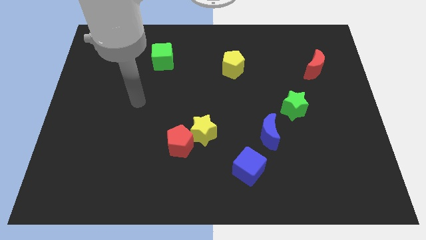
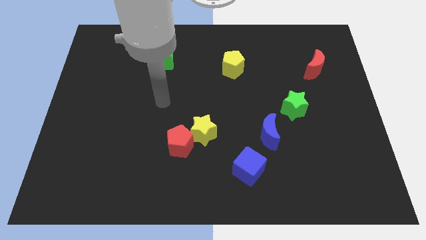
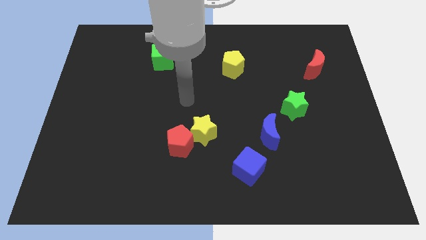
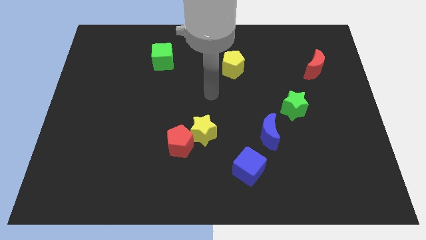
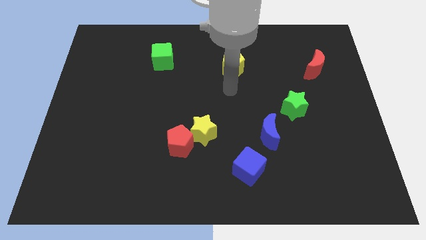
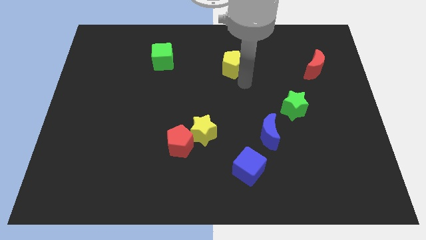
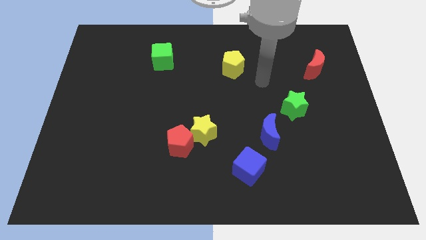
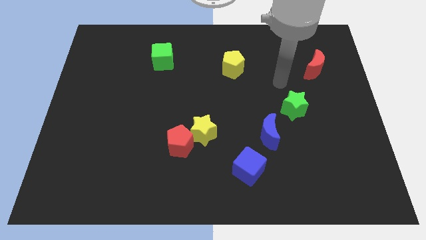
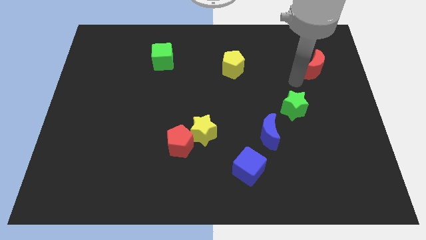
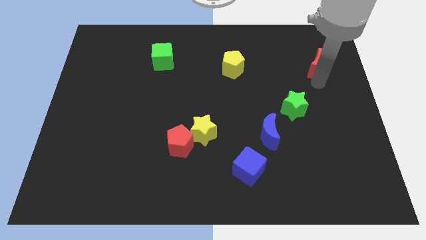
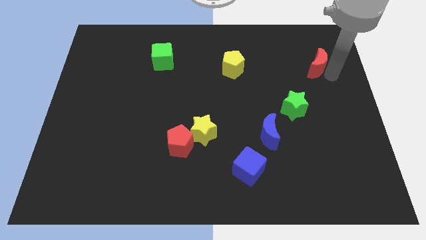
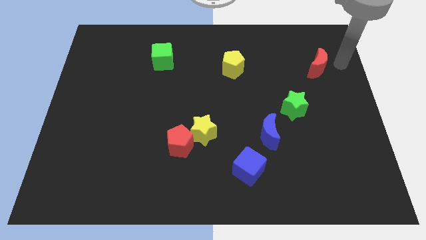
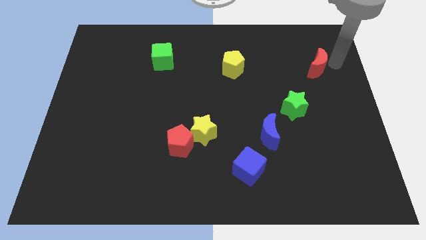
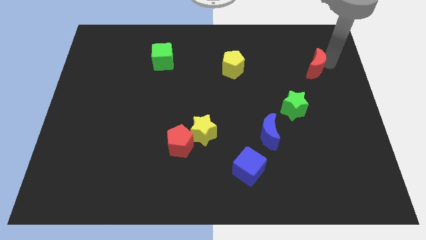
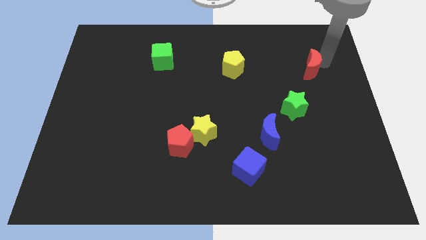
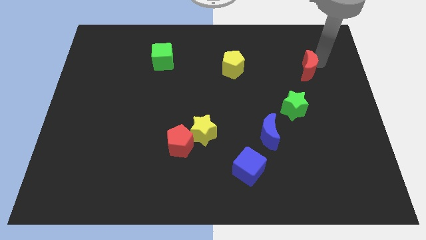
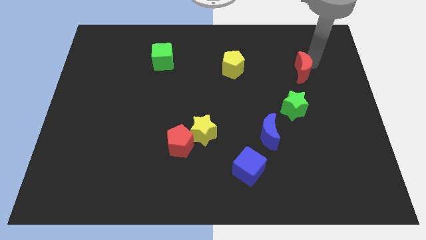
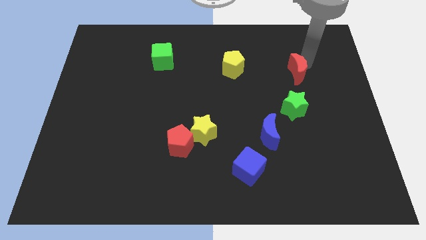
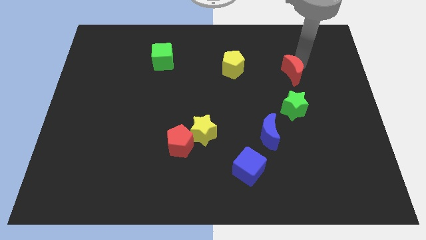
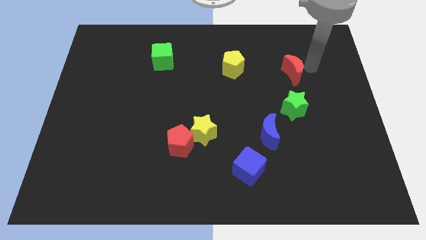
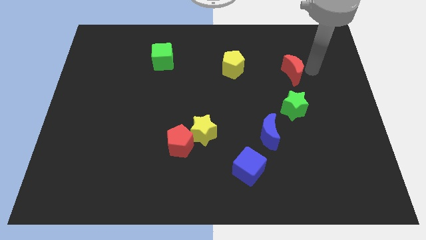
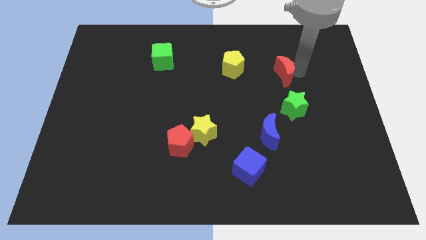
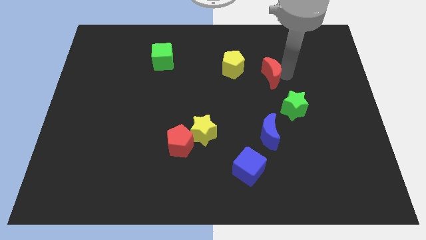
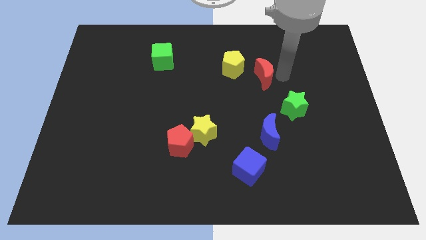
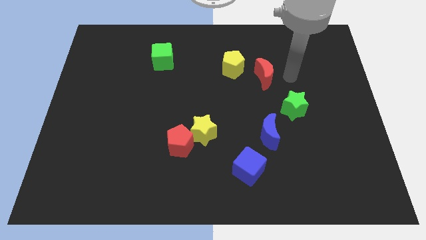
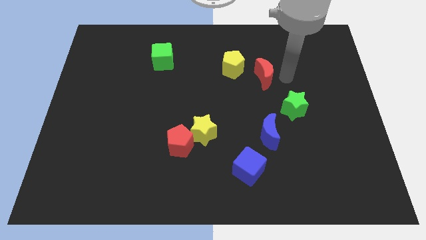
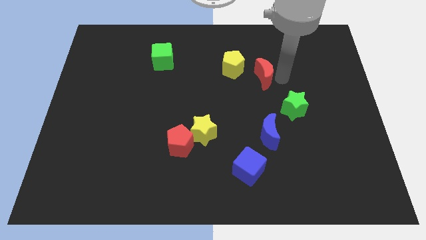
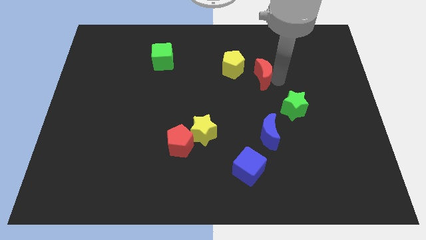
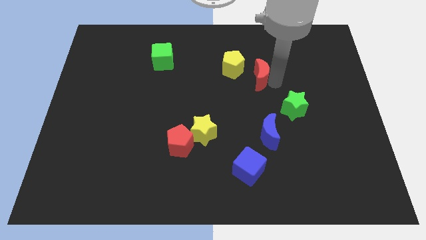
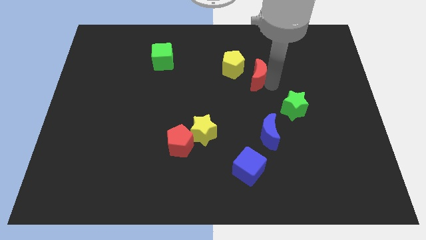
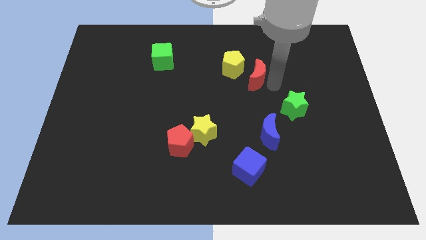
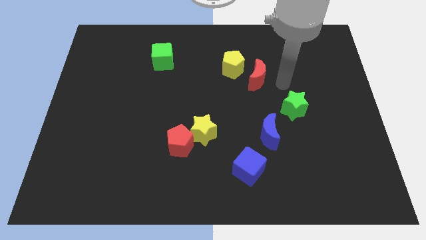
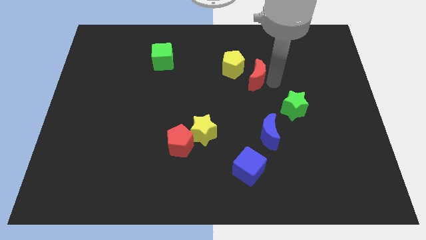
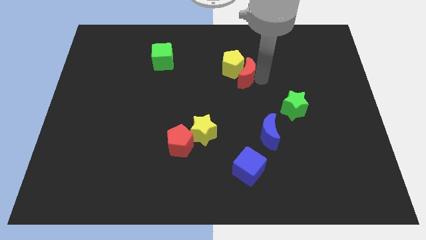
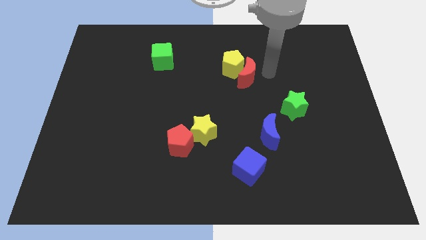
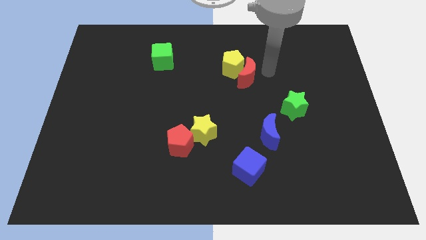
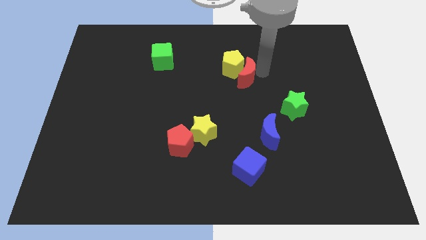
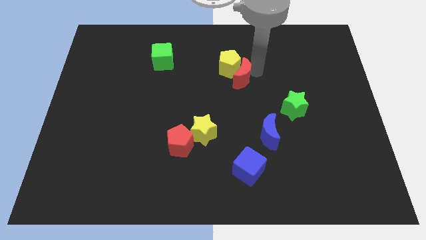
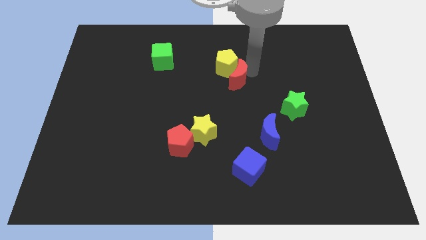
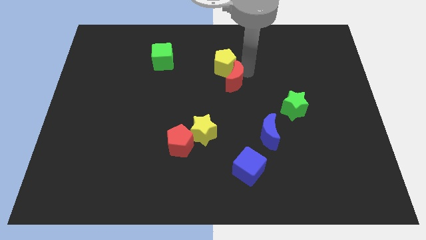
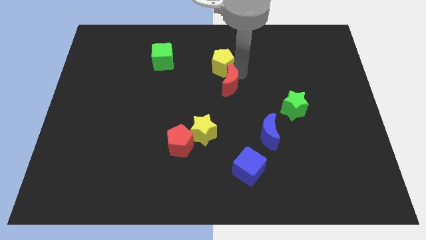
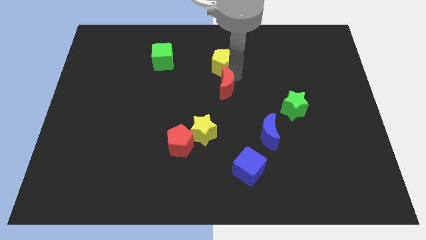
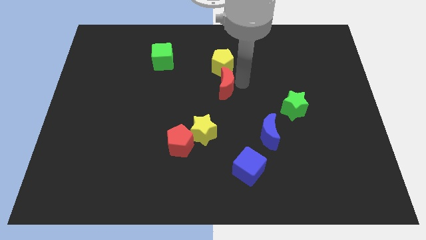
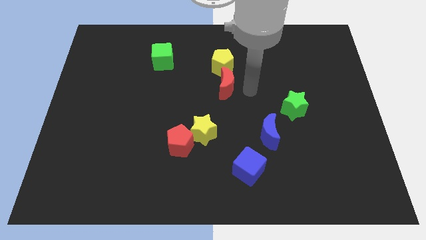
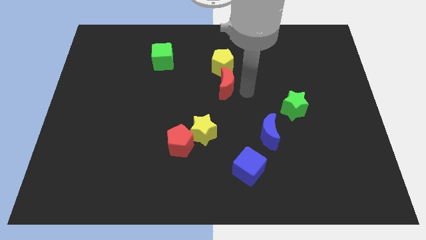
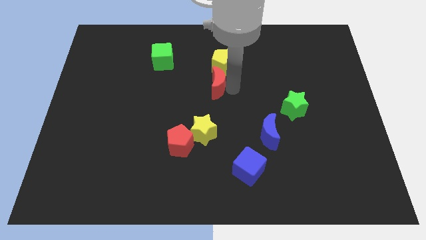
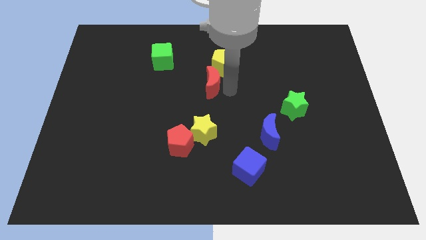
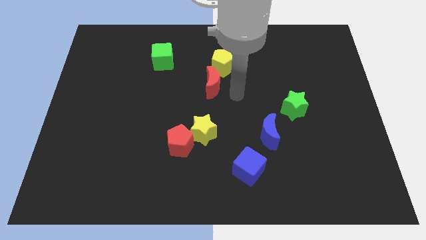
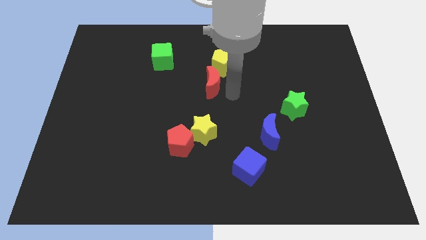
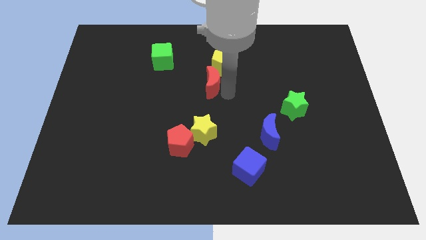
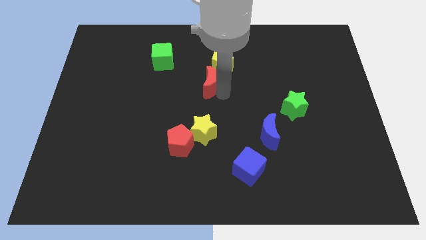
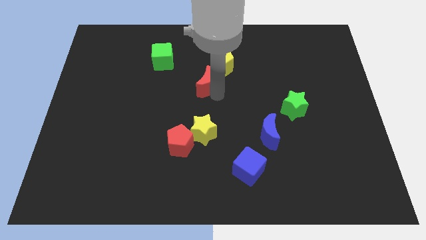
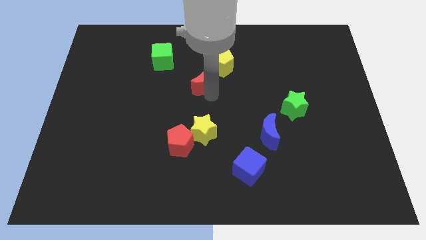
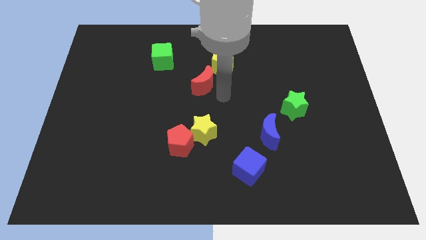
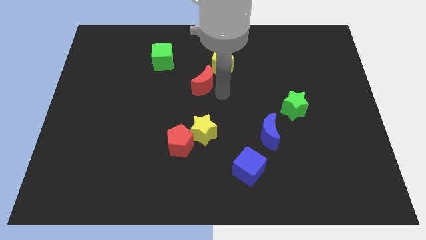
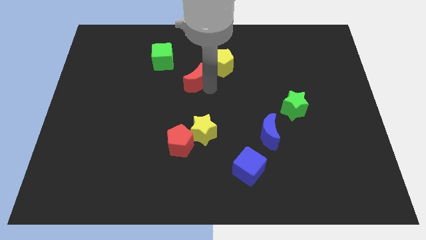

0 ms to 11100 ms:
slide the red moon to the bottom right side of the green cube

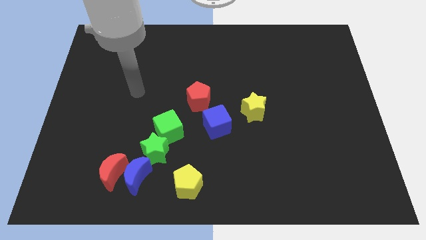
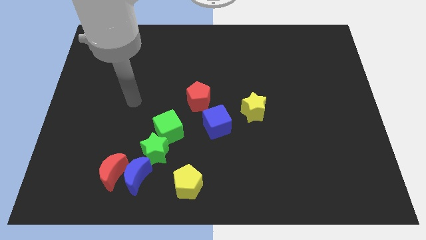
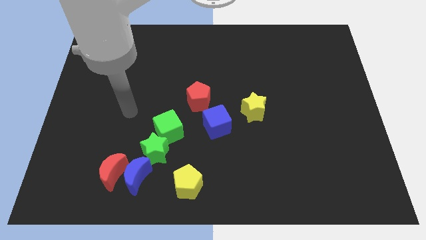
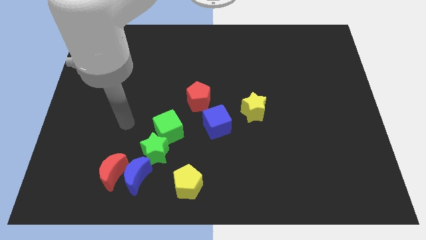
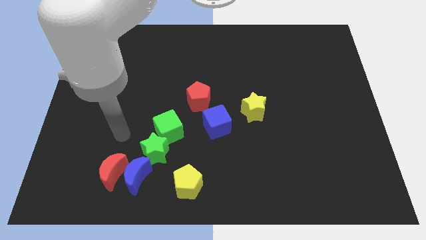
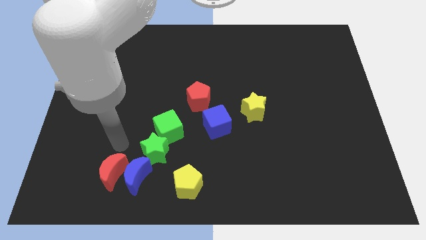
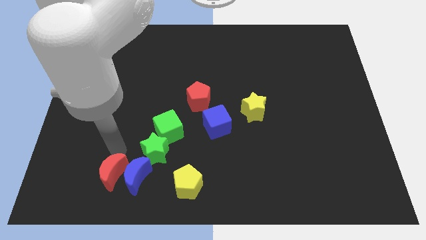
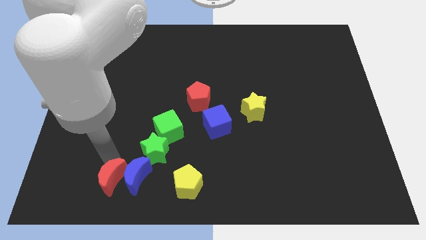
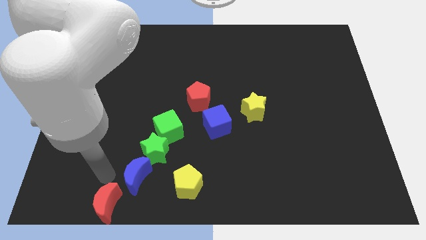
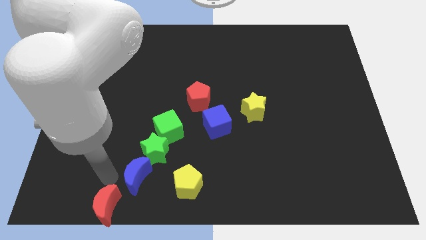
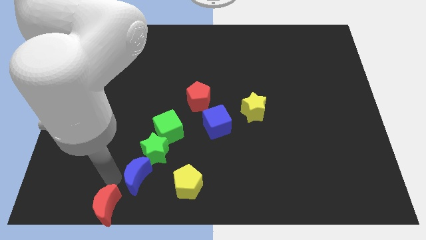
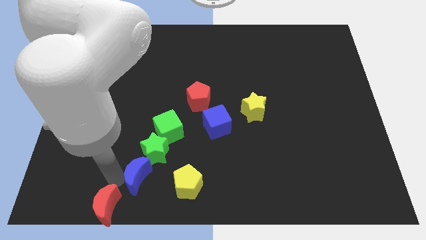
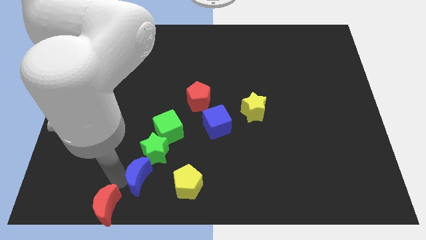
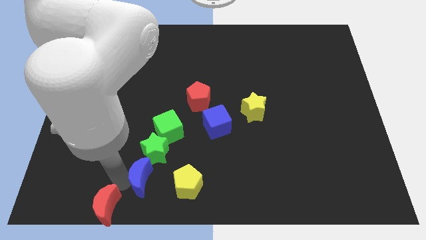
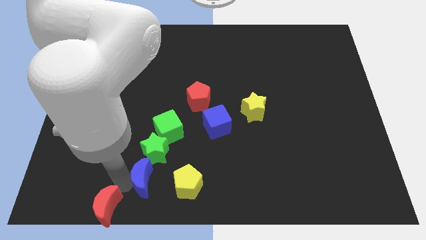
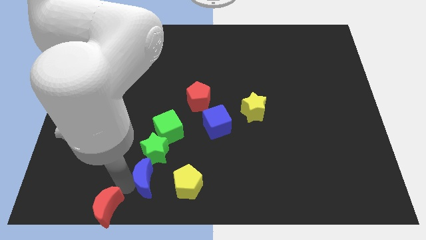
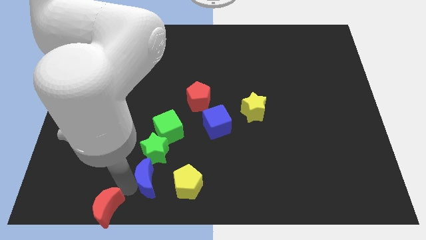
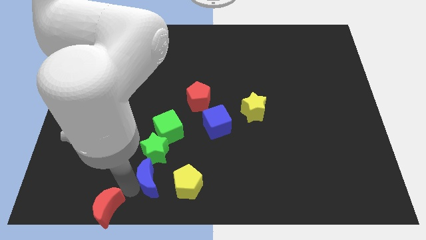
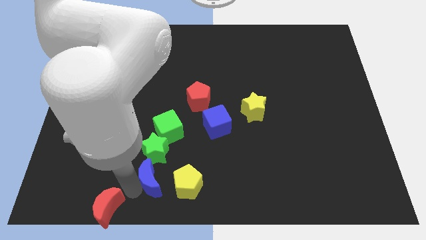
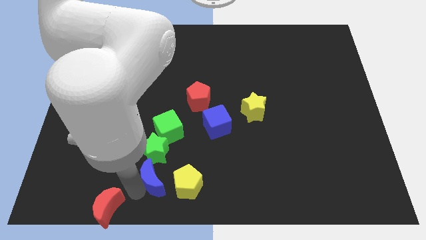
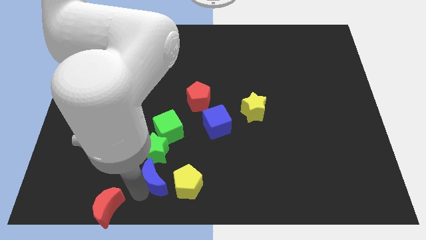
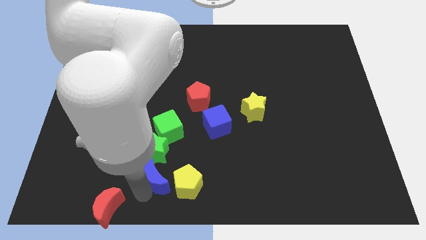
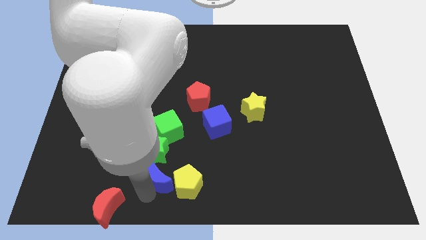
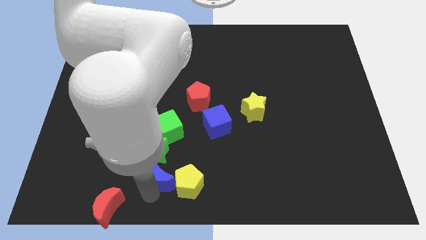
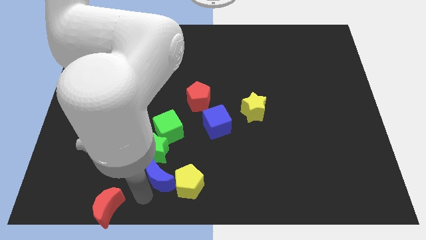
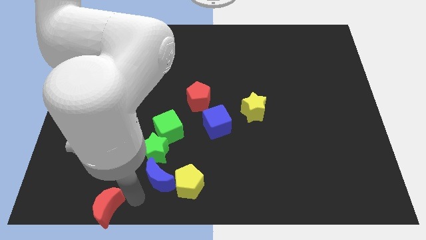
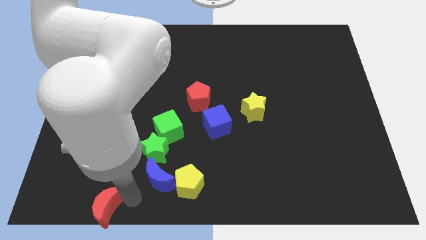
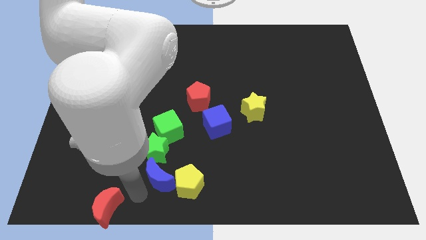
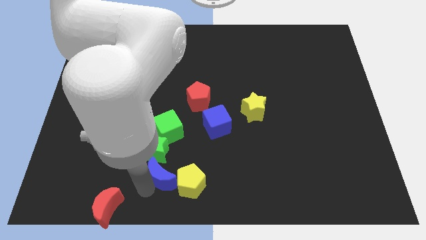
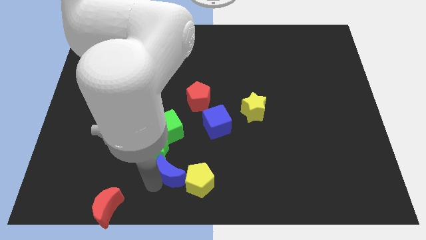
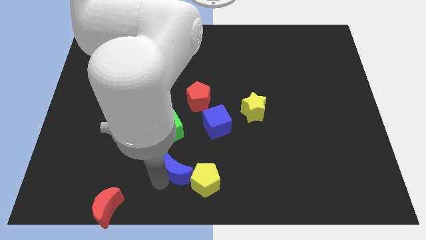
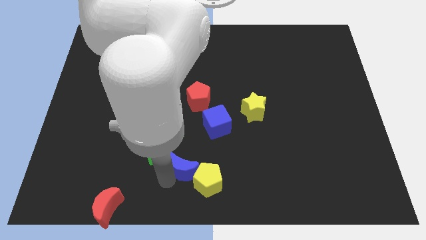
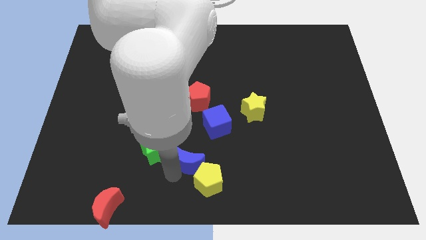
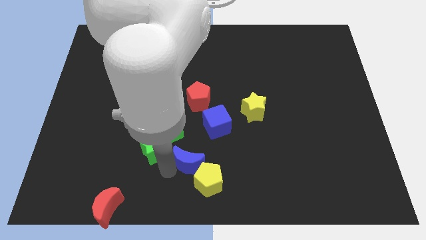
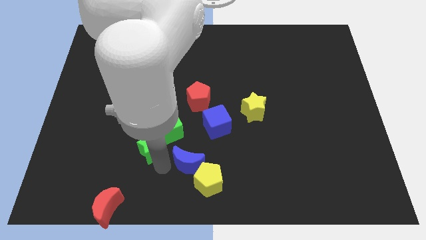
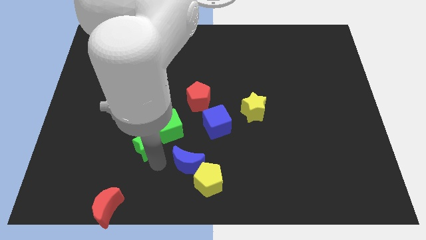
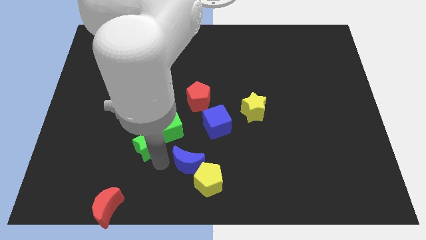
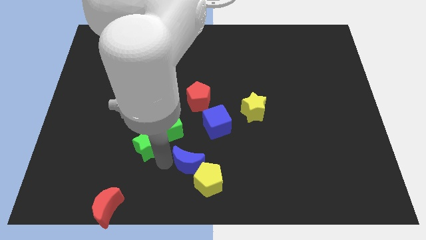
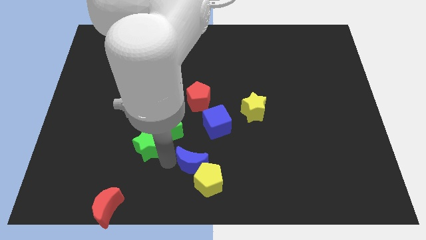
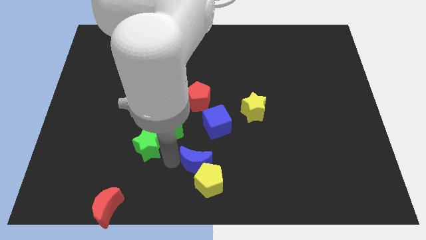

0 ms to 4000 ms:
push the blue moon to the bottom side of the blue cube
